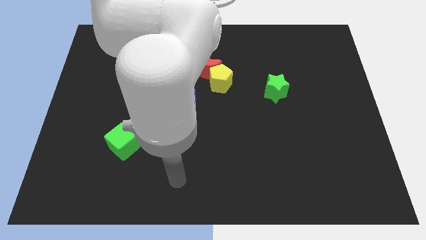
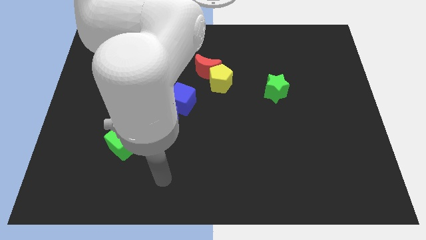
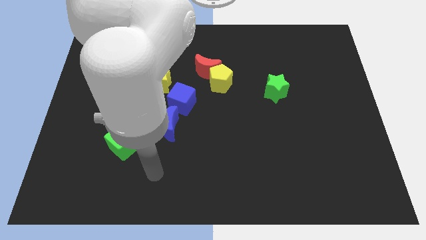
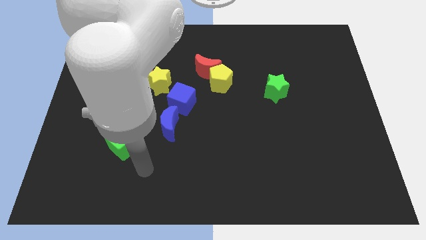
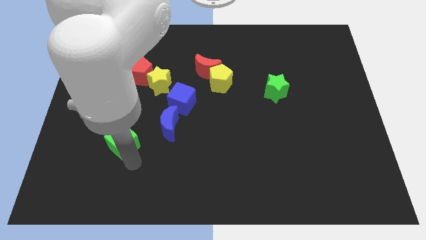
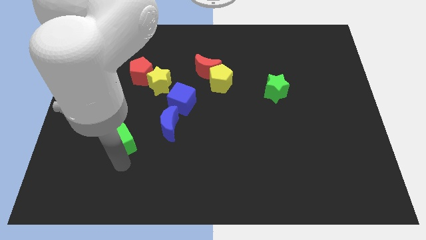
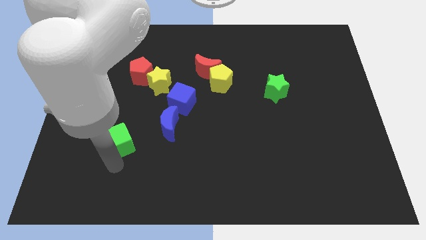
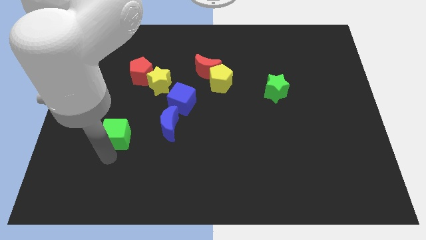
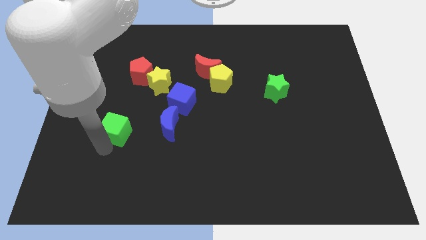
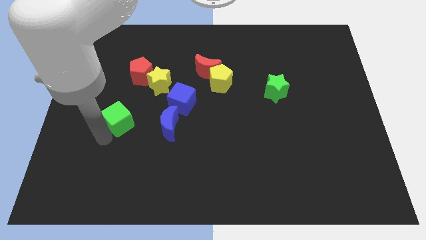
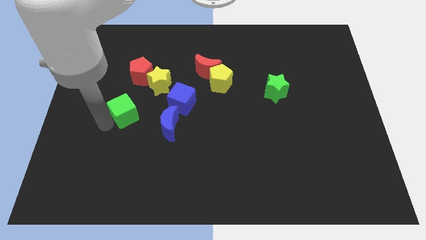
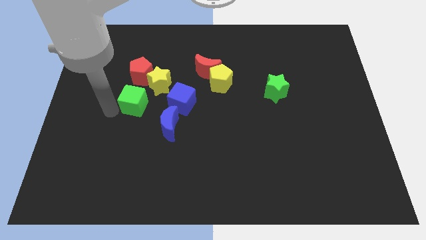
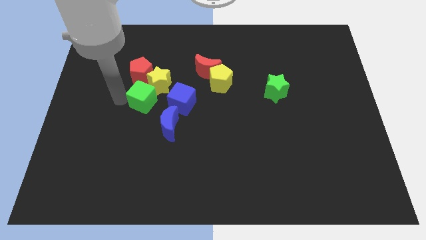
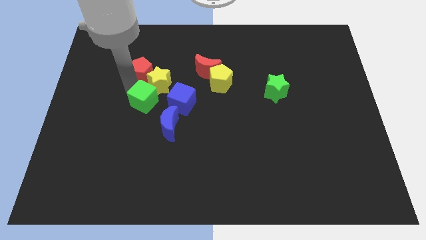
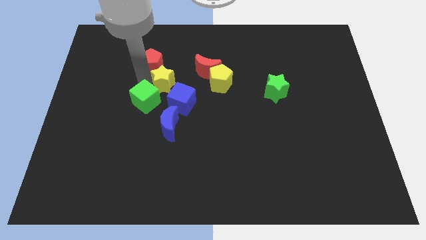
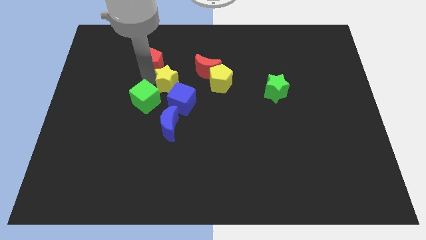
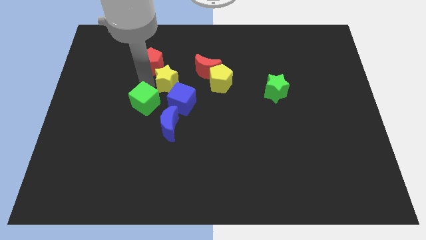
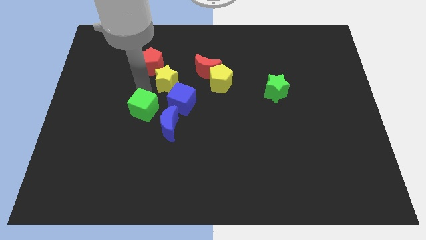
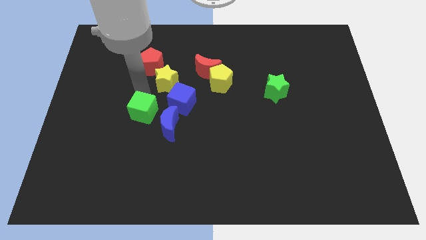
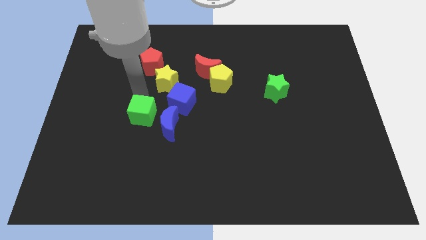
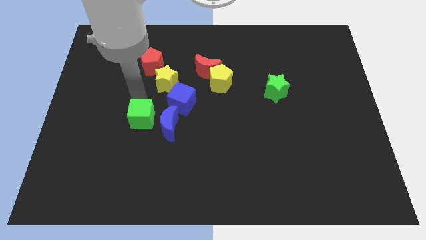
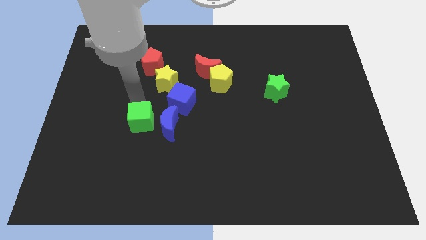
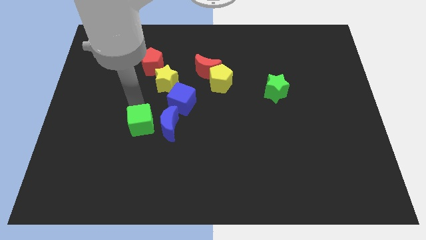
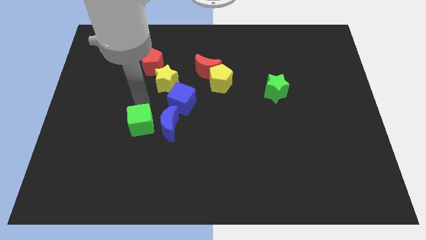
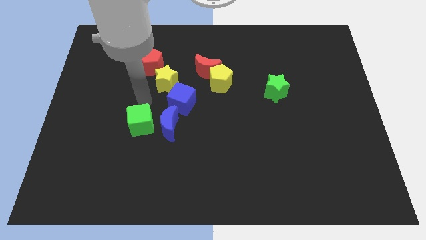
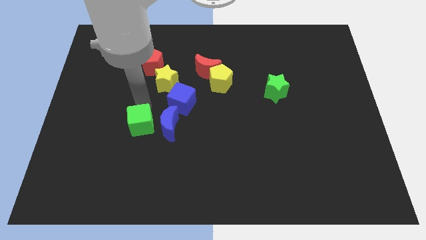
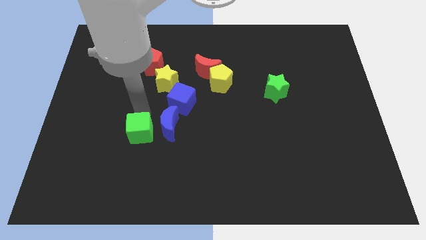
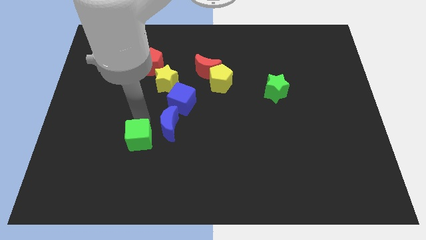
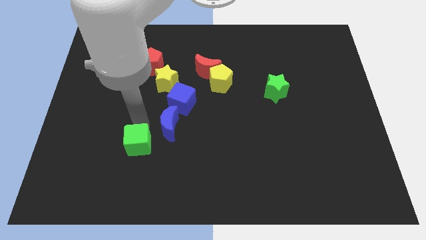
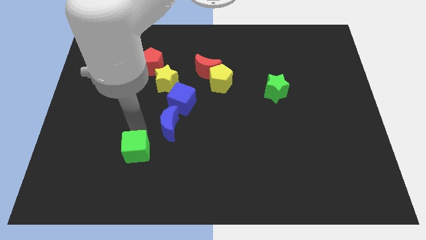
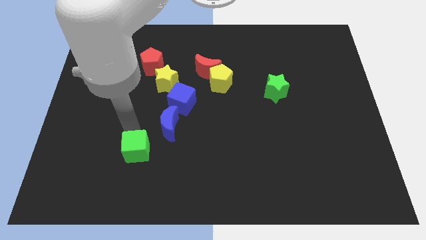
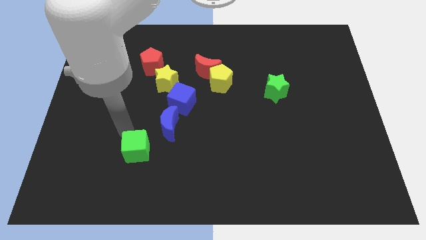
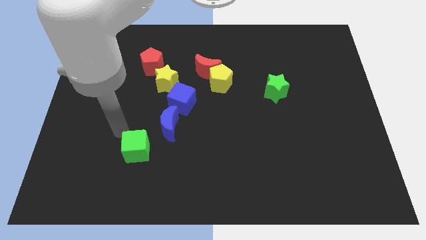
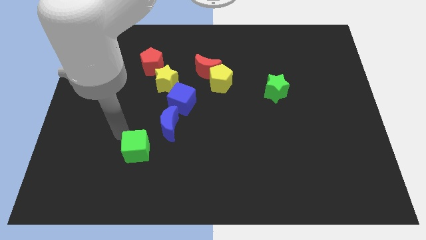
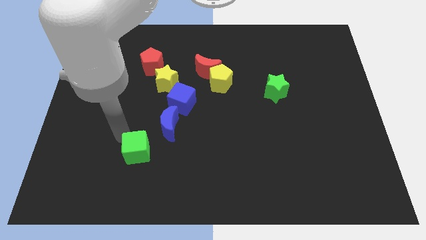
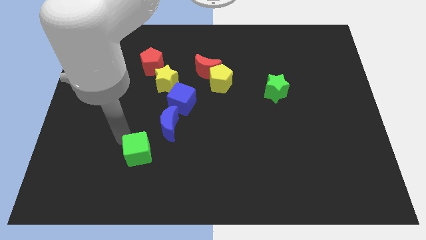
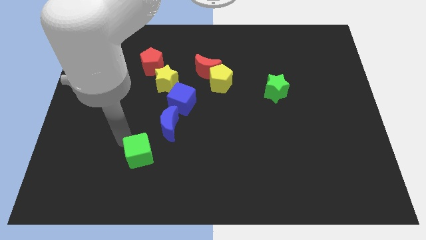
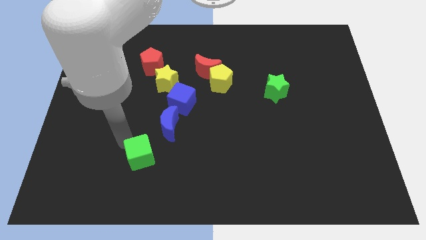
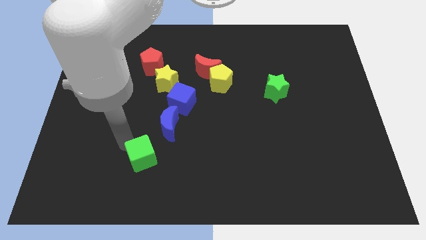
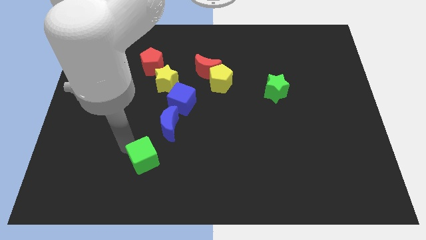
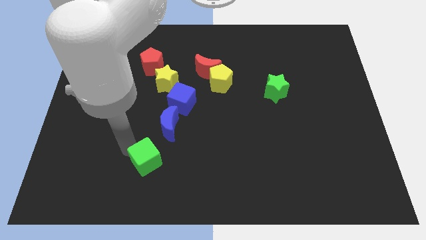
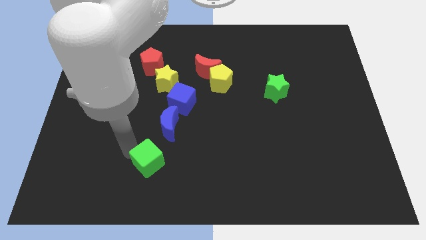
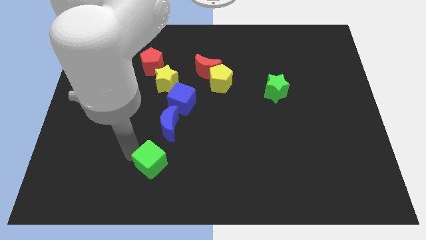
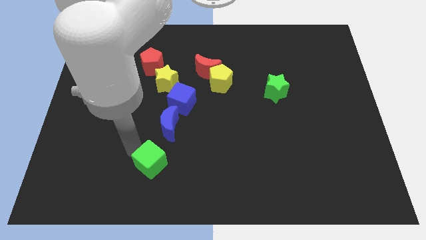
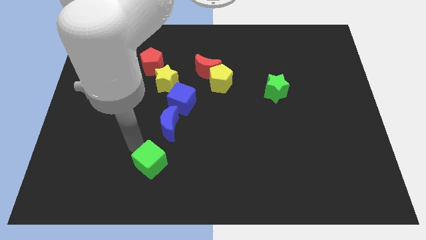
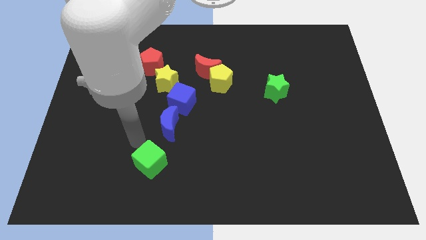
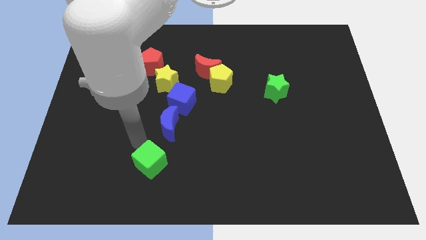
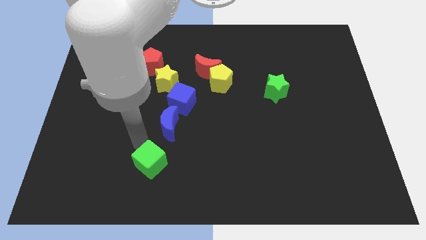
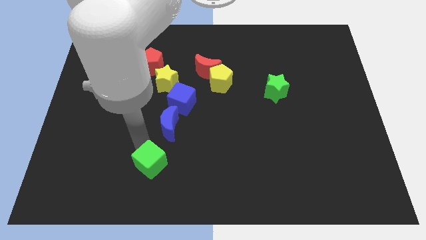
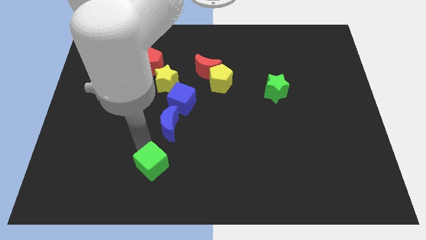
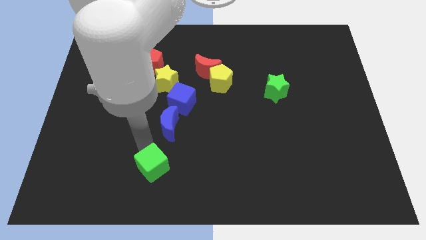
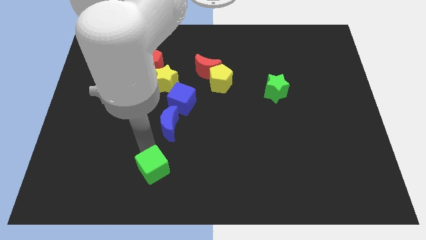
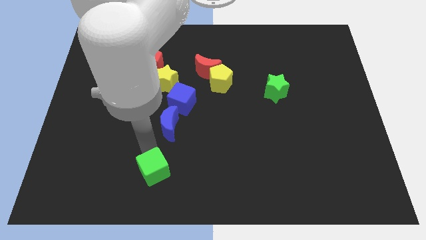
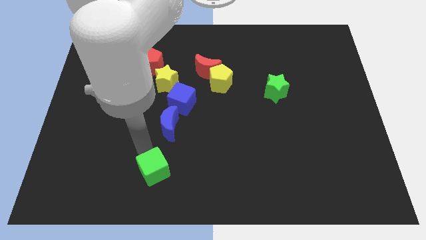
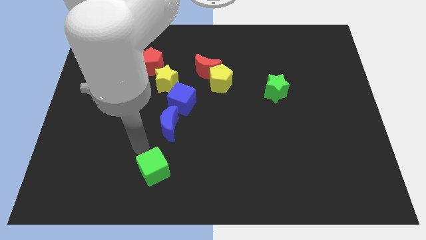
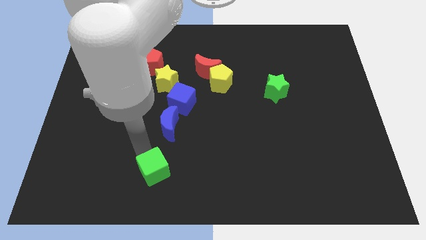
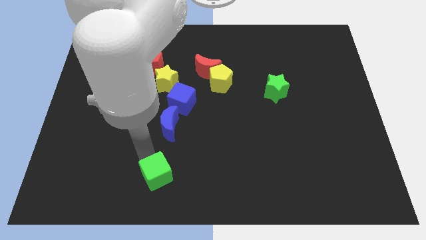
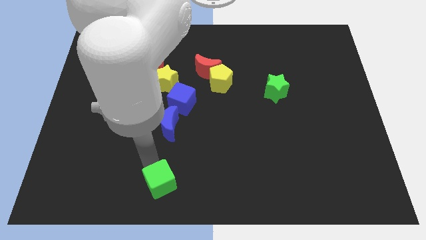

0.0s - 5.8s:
push the green cube to the bottom

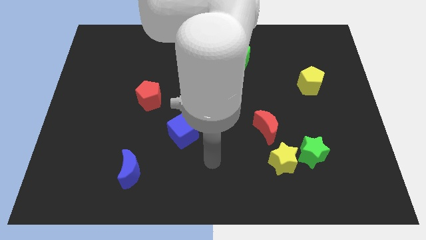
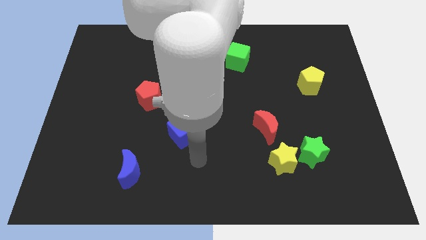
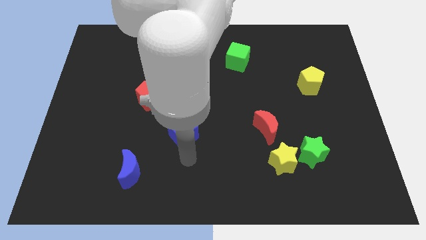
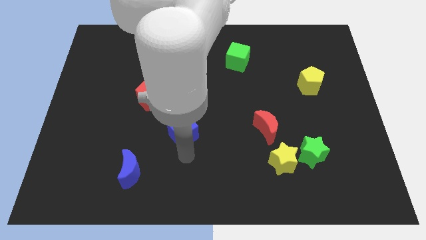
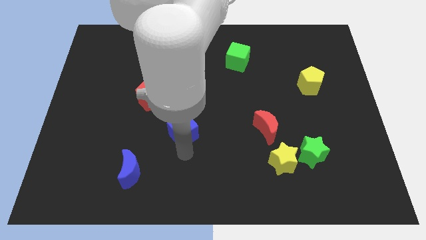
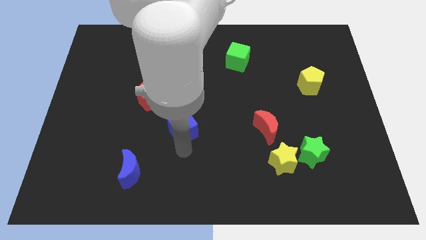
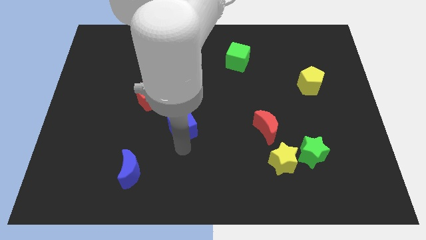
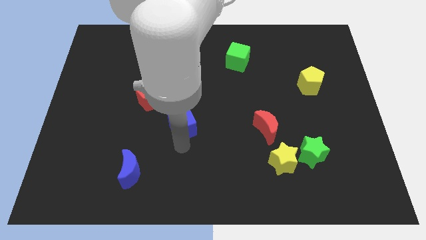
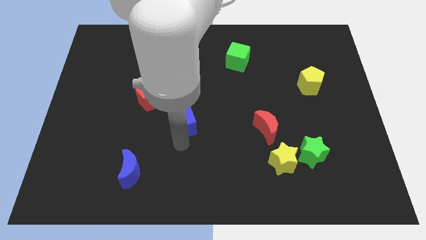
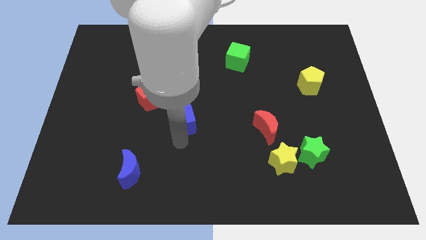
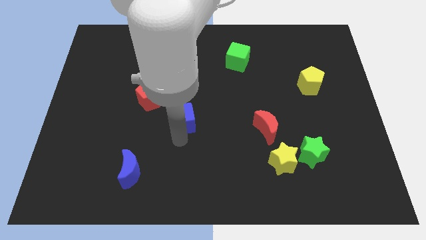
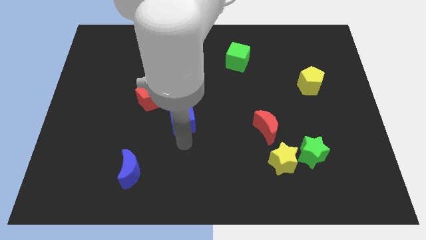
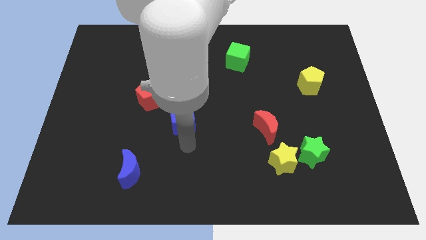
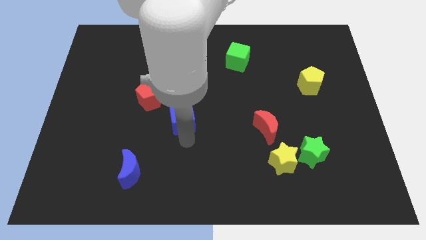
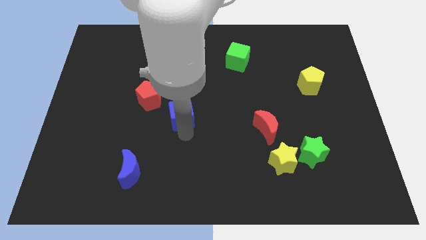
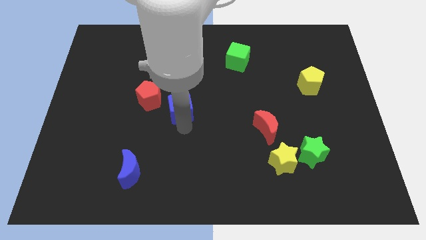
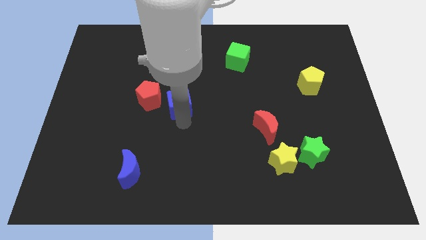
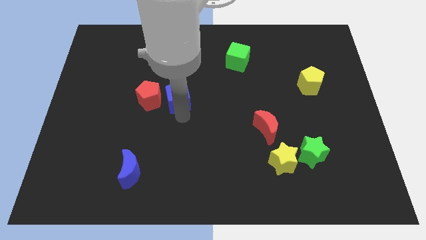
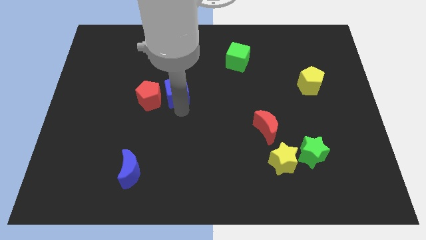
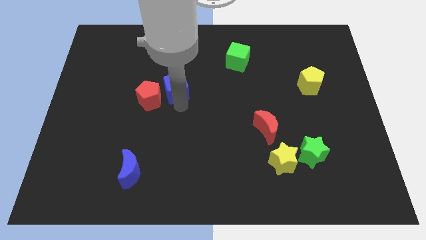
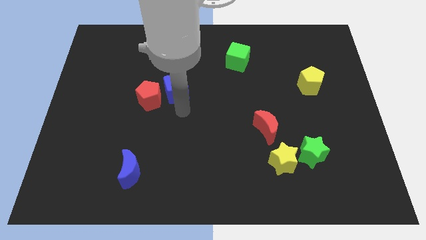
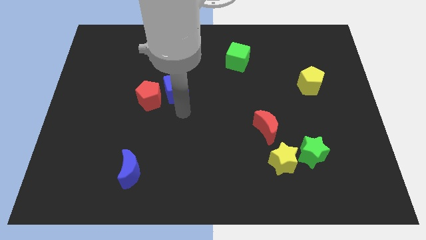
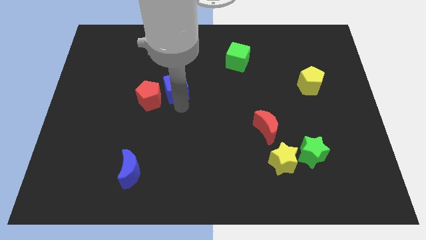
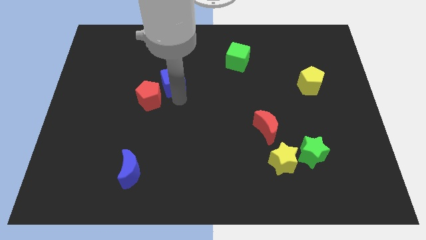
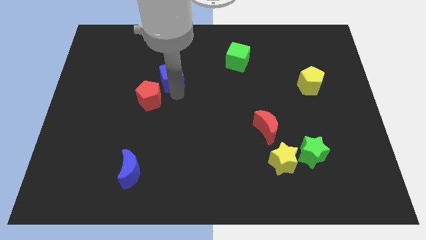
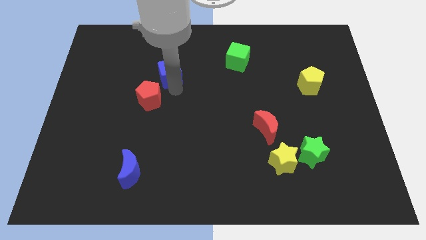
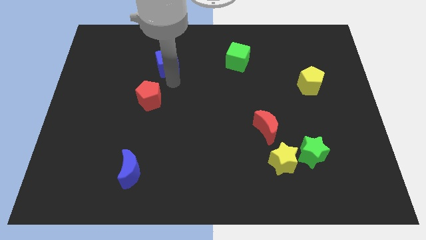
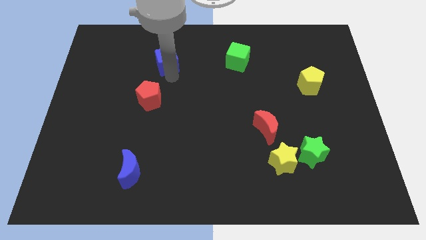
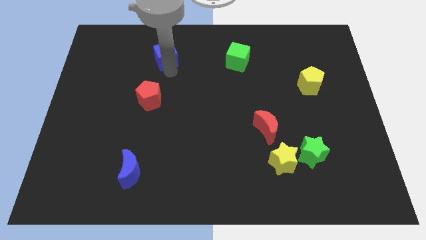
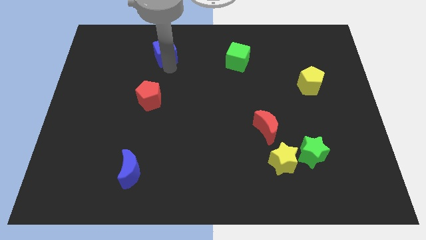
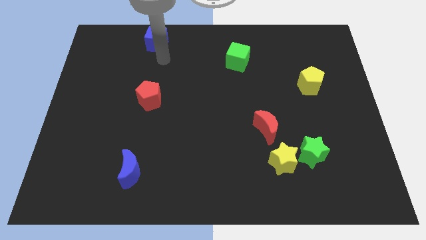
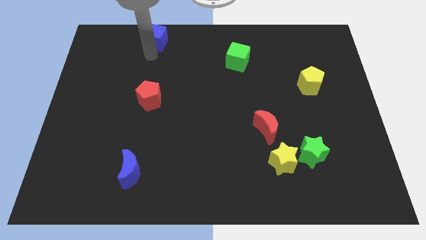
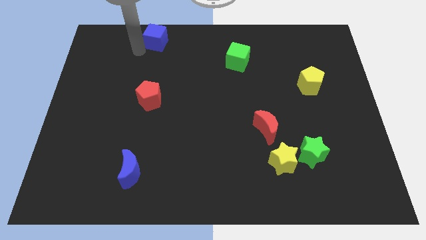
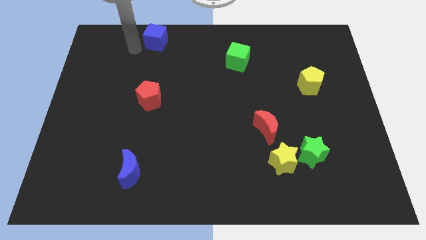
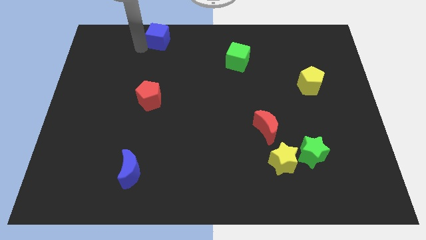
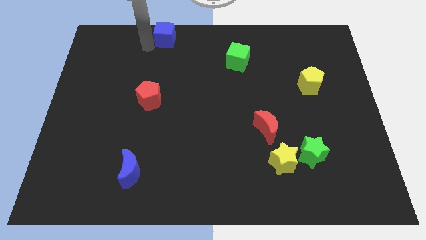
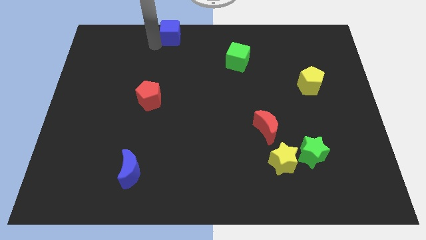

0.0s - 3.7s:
slide the blue cube to the top
